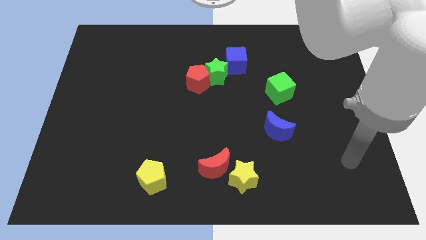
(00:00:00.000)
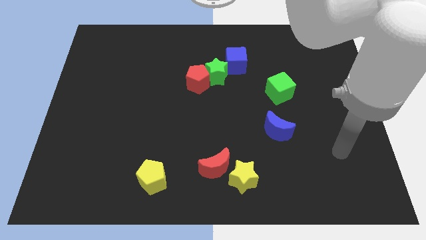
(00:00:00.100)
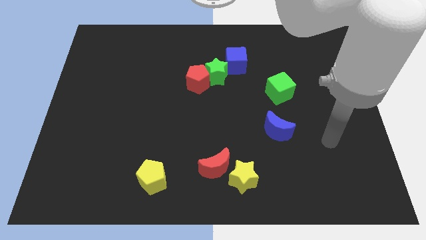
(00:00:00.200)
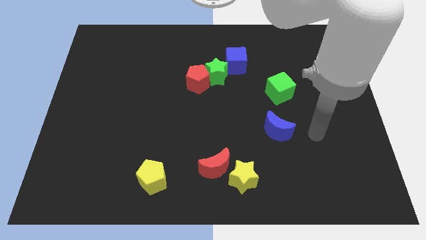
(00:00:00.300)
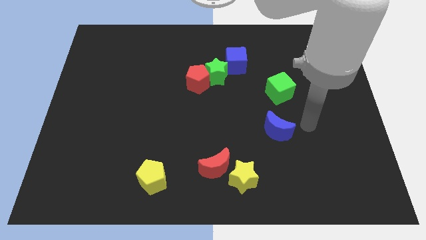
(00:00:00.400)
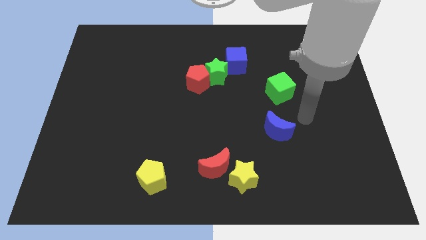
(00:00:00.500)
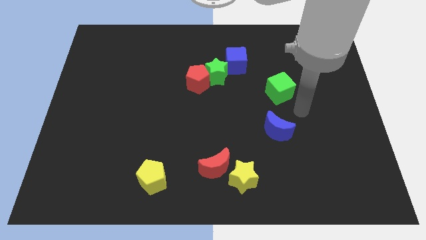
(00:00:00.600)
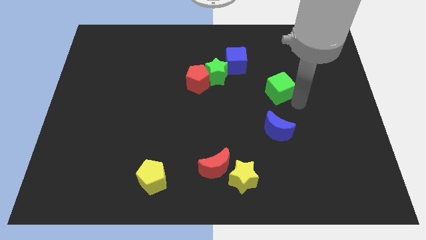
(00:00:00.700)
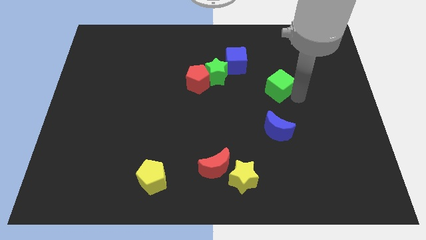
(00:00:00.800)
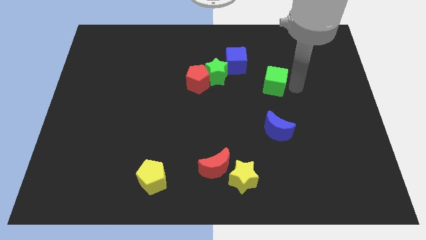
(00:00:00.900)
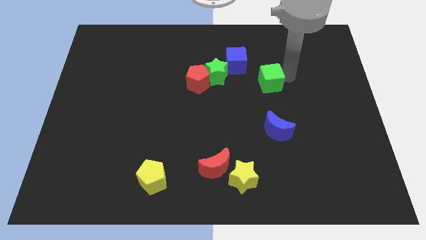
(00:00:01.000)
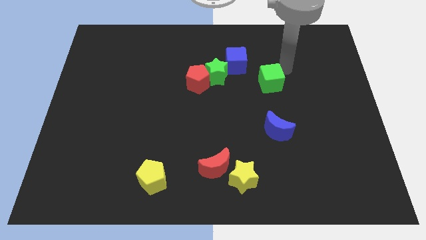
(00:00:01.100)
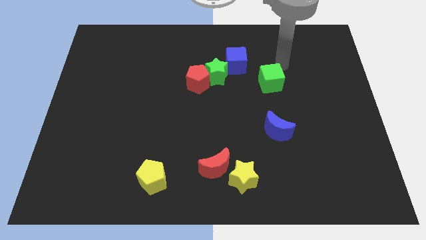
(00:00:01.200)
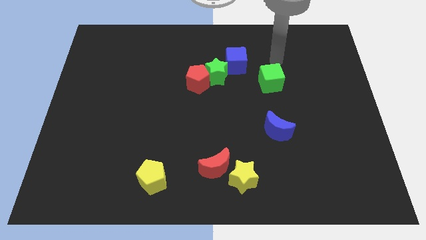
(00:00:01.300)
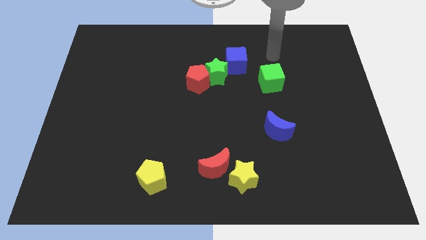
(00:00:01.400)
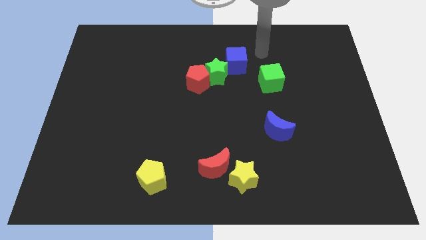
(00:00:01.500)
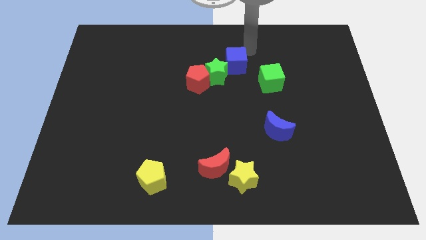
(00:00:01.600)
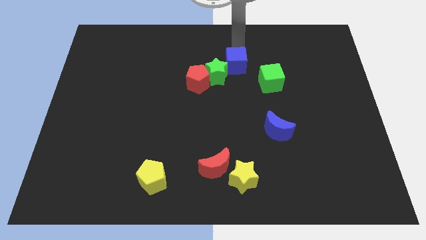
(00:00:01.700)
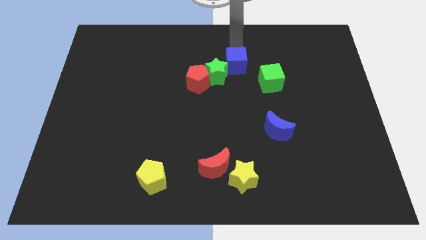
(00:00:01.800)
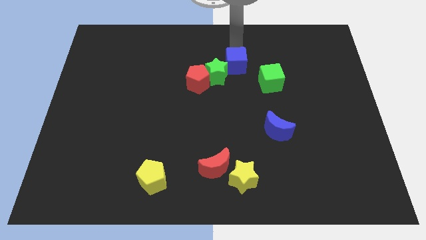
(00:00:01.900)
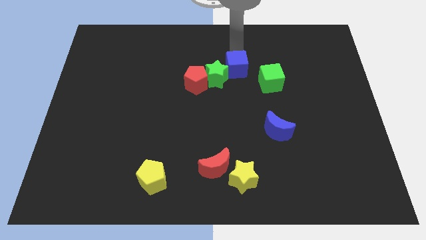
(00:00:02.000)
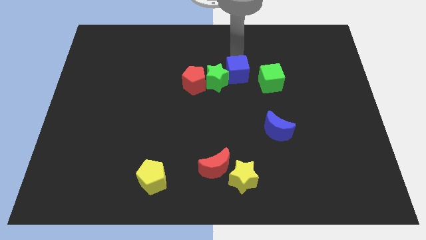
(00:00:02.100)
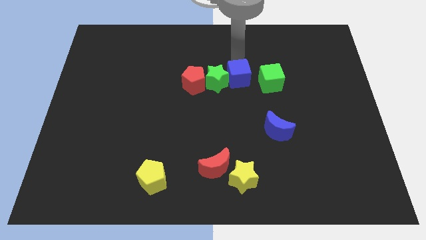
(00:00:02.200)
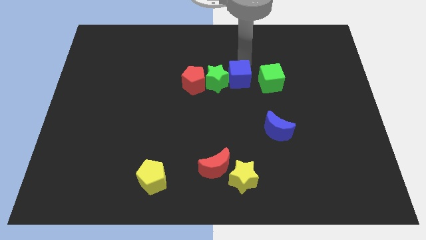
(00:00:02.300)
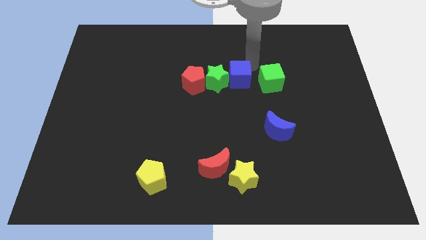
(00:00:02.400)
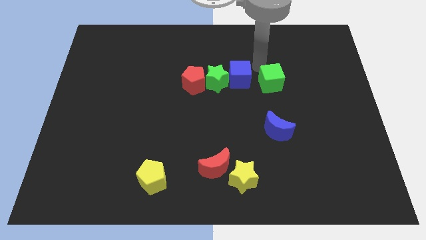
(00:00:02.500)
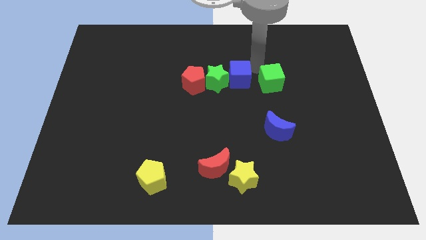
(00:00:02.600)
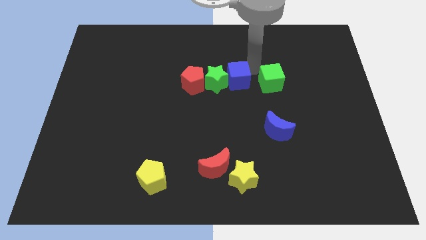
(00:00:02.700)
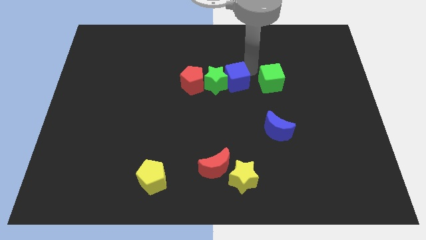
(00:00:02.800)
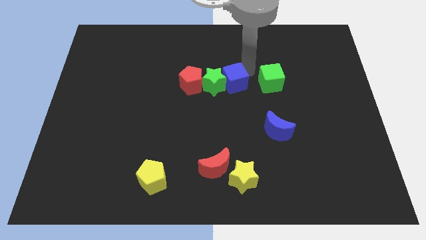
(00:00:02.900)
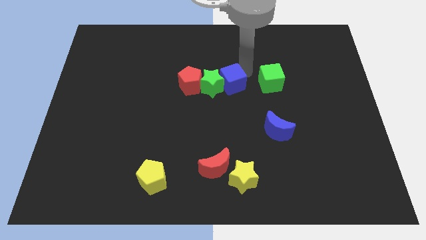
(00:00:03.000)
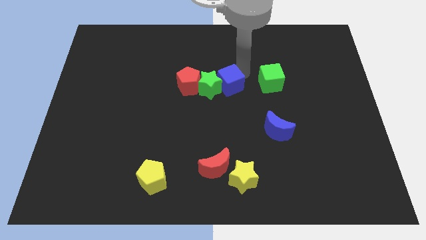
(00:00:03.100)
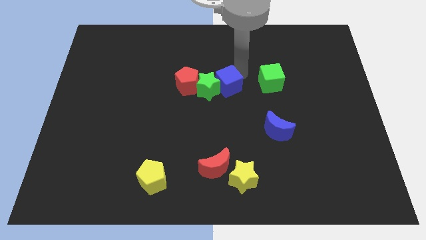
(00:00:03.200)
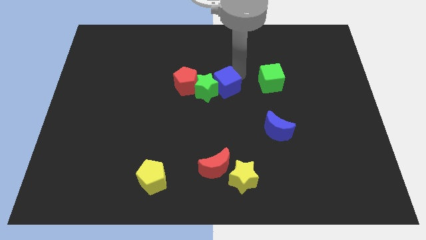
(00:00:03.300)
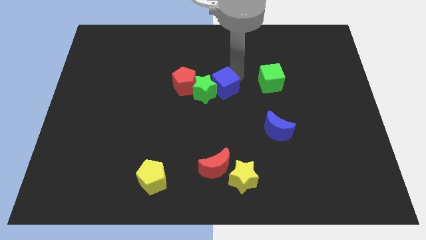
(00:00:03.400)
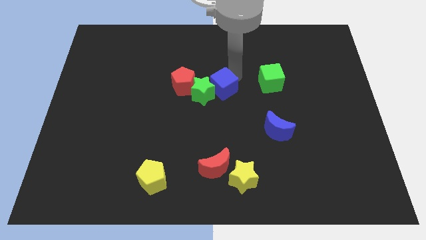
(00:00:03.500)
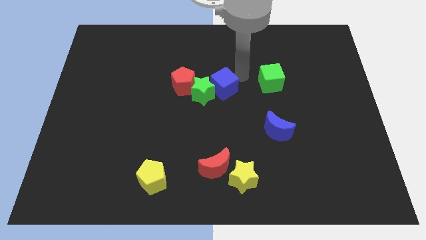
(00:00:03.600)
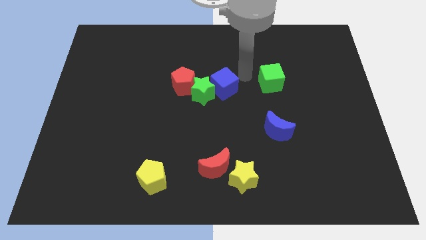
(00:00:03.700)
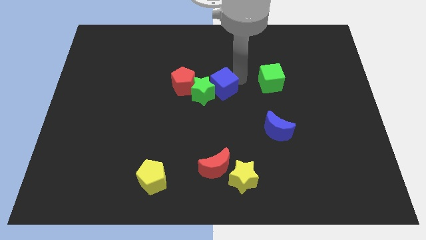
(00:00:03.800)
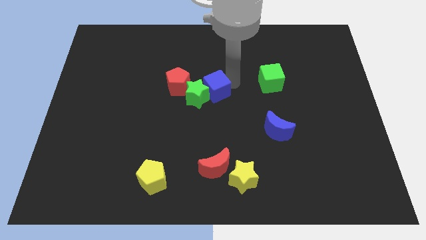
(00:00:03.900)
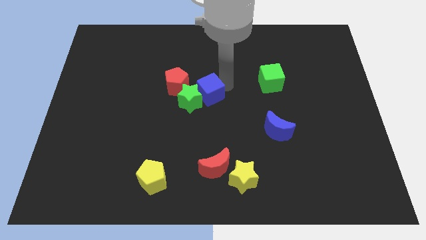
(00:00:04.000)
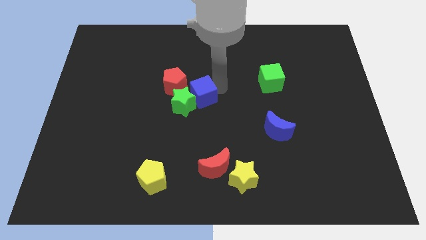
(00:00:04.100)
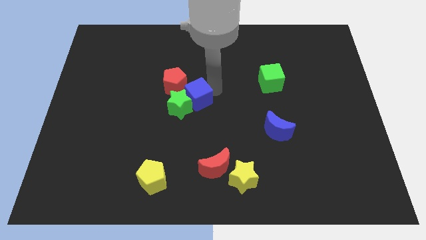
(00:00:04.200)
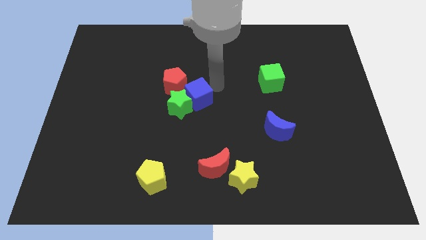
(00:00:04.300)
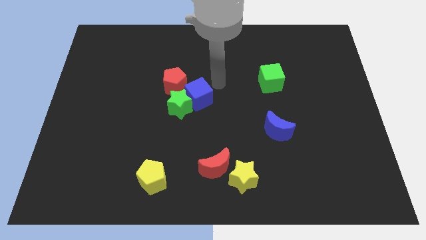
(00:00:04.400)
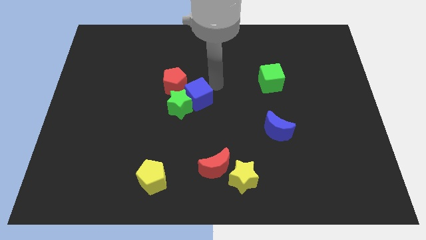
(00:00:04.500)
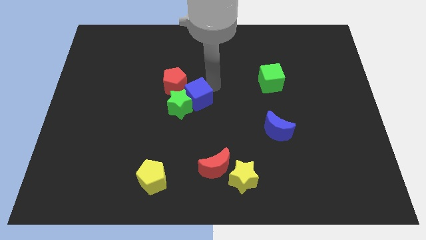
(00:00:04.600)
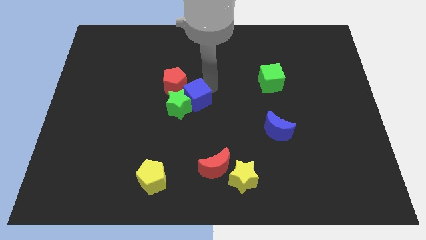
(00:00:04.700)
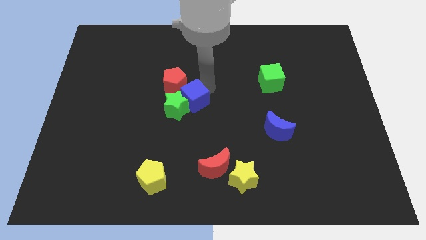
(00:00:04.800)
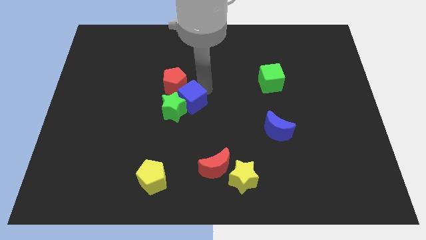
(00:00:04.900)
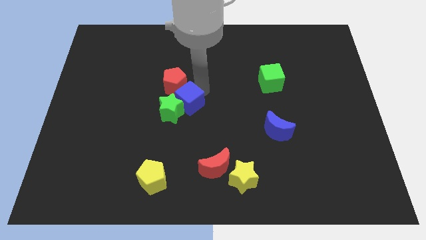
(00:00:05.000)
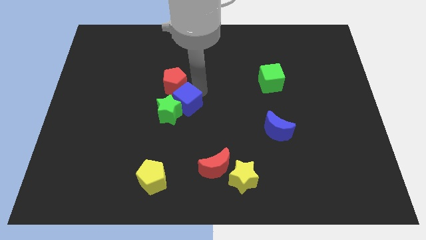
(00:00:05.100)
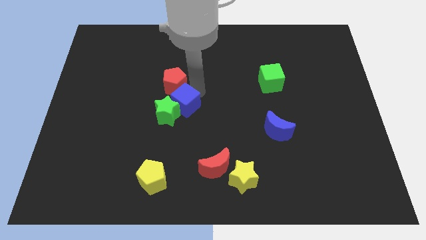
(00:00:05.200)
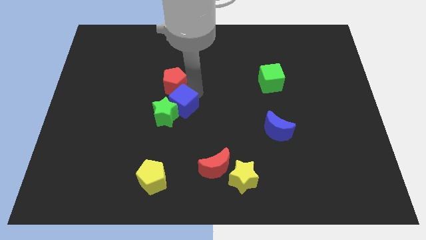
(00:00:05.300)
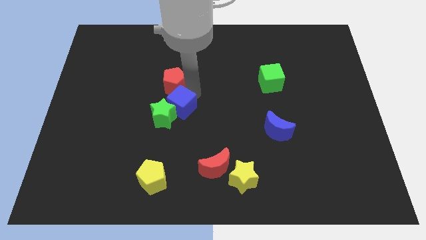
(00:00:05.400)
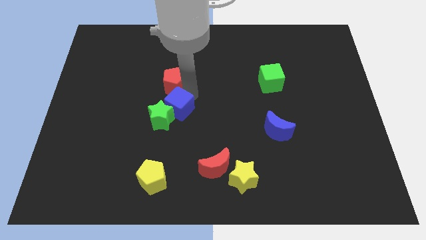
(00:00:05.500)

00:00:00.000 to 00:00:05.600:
move the blue cube down and to the left

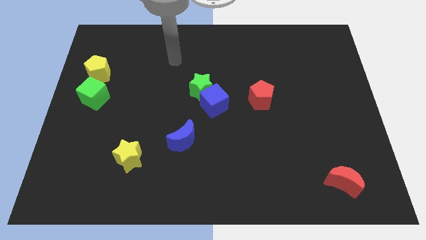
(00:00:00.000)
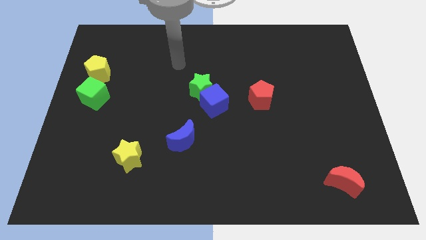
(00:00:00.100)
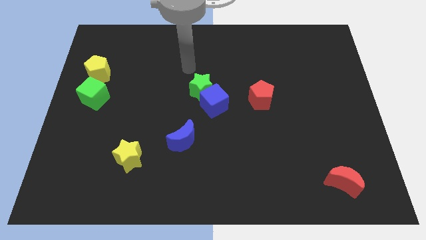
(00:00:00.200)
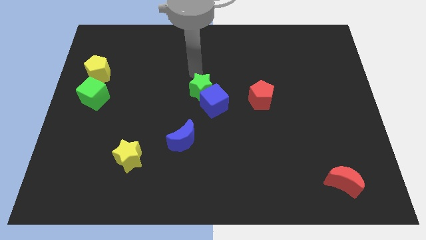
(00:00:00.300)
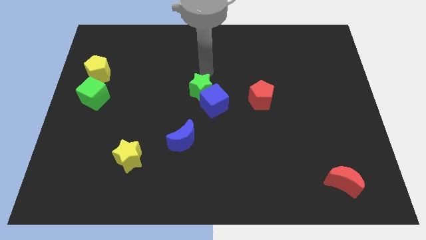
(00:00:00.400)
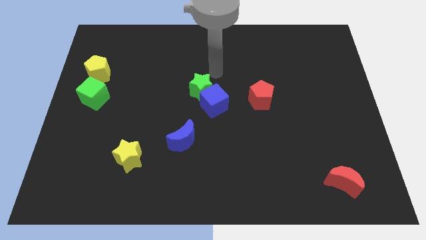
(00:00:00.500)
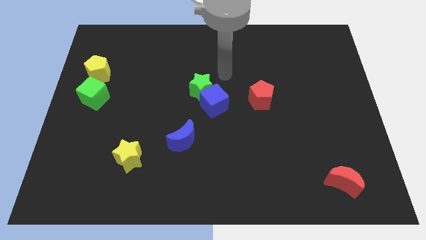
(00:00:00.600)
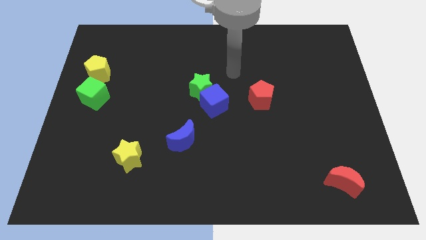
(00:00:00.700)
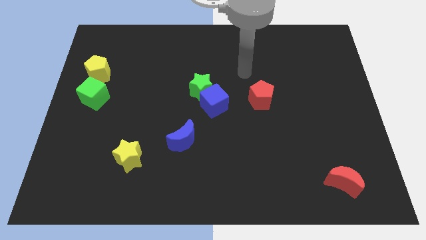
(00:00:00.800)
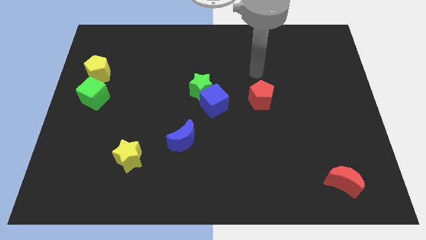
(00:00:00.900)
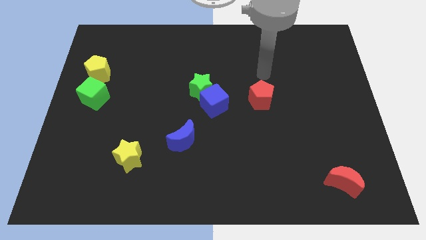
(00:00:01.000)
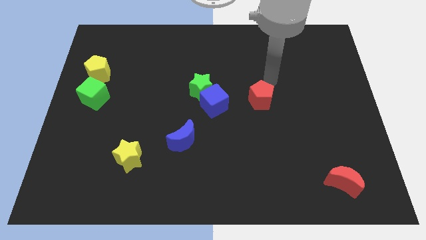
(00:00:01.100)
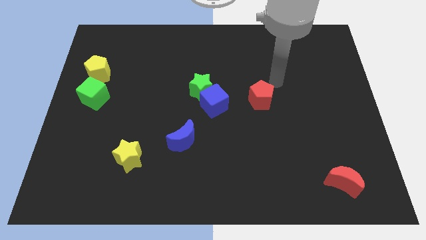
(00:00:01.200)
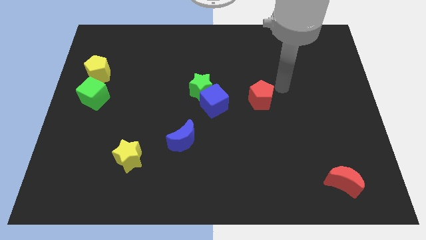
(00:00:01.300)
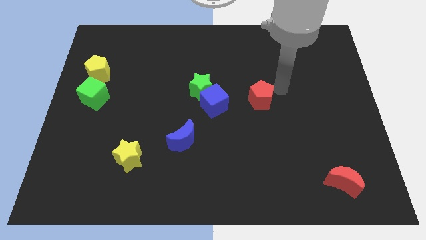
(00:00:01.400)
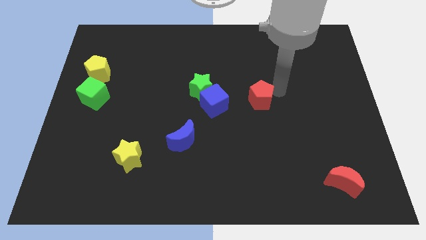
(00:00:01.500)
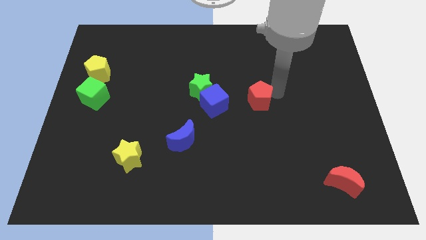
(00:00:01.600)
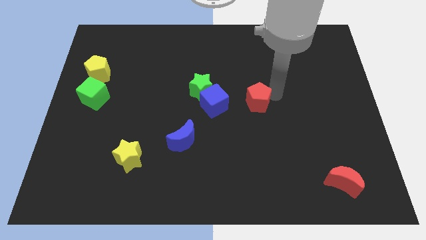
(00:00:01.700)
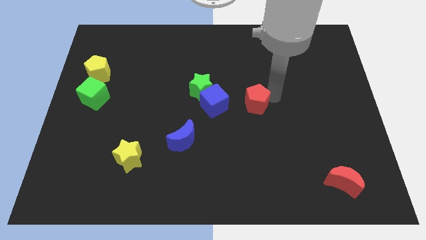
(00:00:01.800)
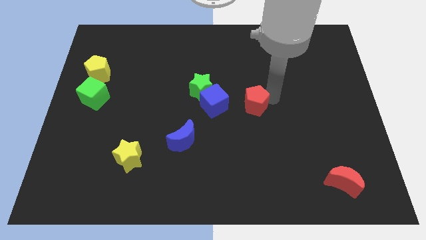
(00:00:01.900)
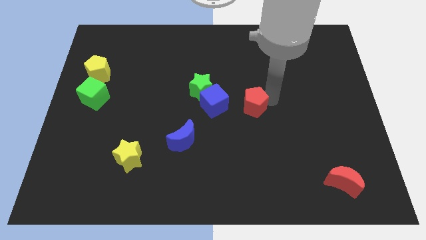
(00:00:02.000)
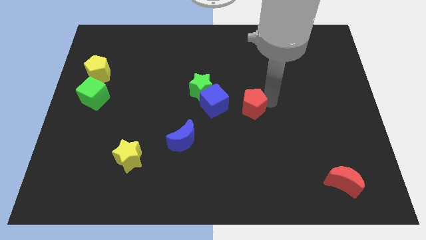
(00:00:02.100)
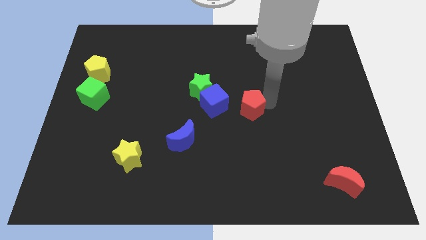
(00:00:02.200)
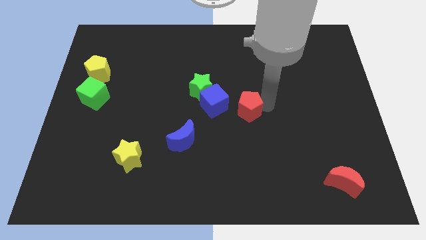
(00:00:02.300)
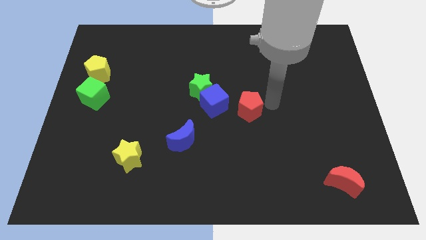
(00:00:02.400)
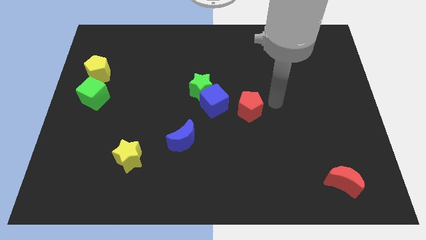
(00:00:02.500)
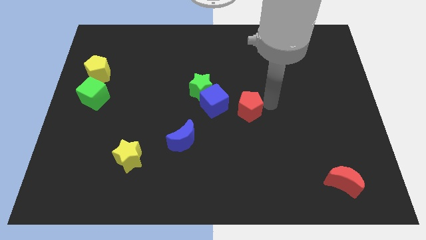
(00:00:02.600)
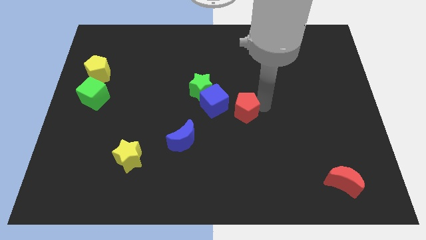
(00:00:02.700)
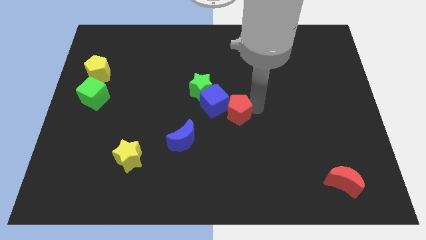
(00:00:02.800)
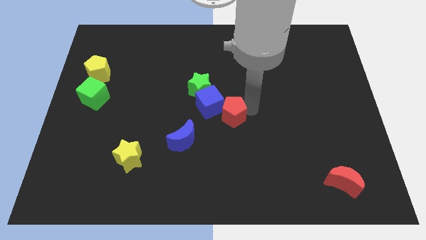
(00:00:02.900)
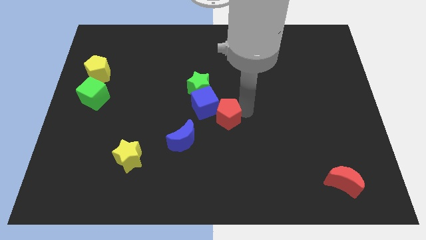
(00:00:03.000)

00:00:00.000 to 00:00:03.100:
push the red pentagon somewhat left
